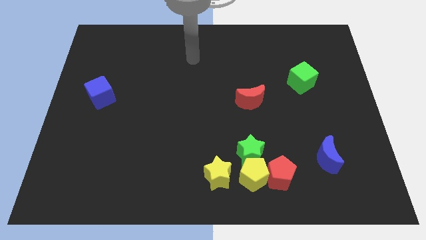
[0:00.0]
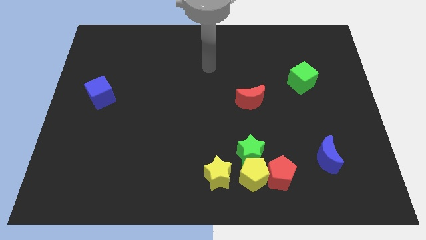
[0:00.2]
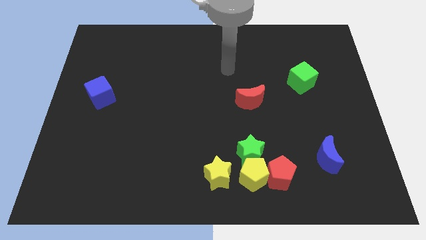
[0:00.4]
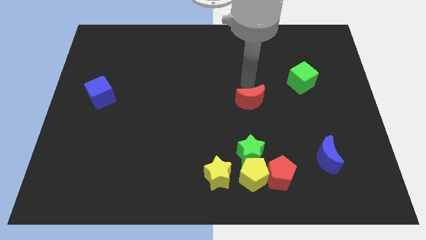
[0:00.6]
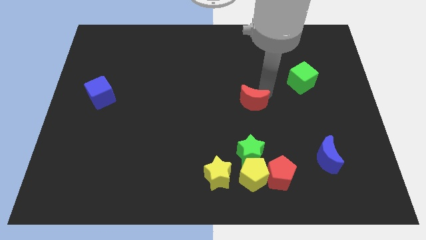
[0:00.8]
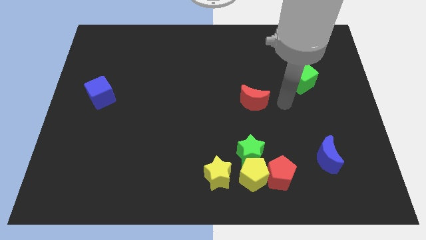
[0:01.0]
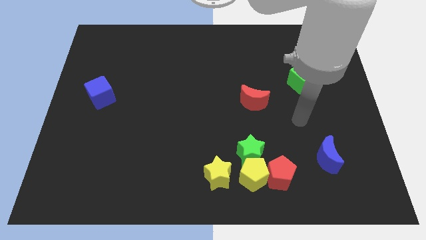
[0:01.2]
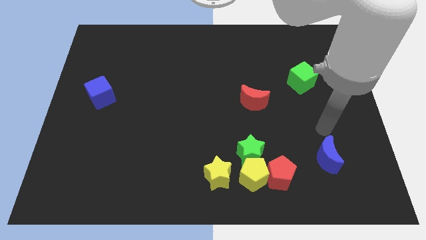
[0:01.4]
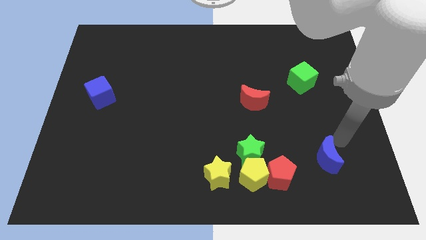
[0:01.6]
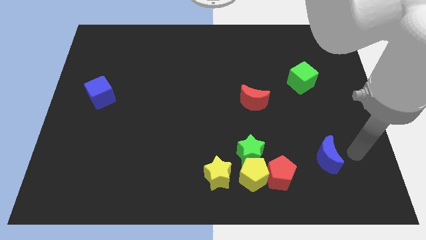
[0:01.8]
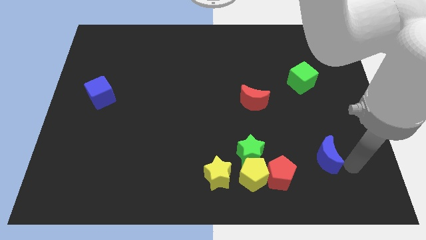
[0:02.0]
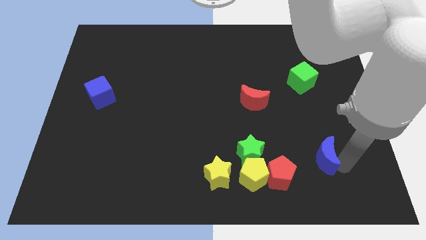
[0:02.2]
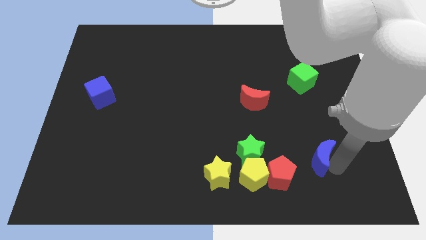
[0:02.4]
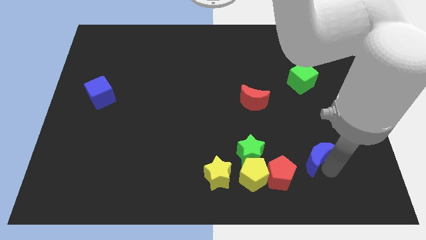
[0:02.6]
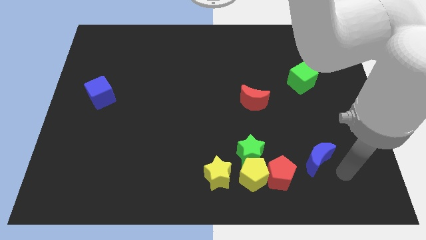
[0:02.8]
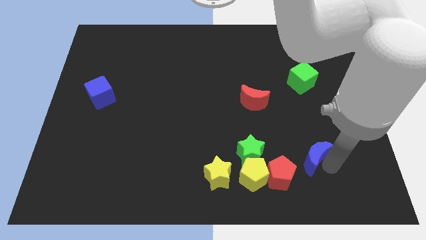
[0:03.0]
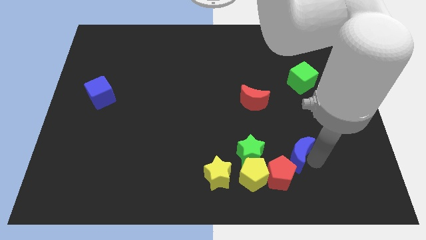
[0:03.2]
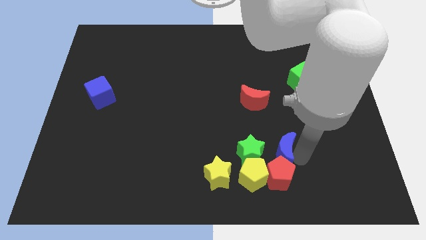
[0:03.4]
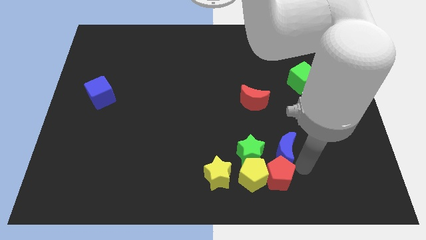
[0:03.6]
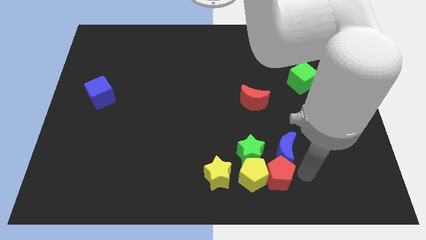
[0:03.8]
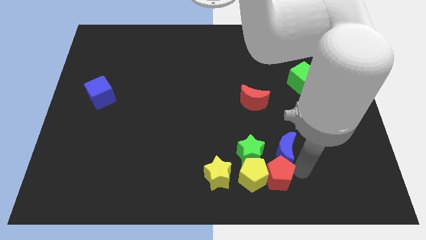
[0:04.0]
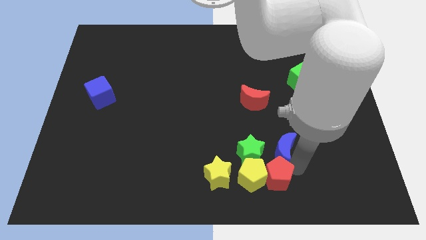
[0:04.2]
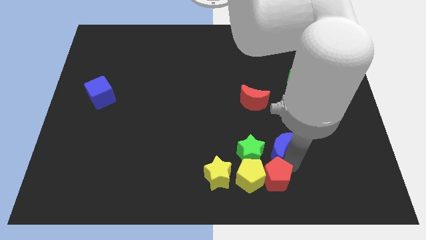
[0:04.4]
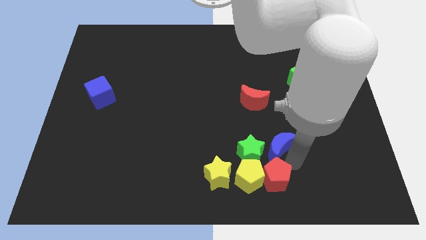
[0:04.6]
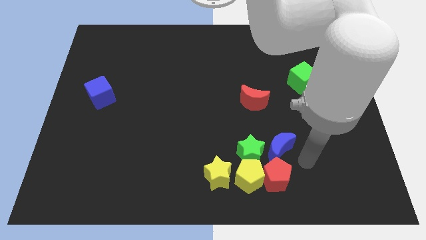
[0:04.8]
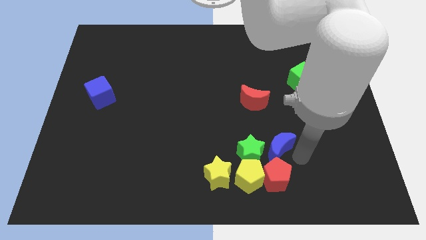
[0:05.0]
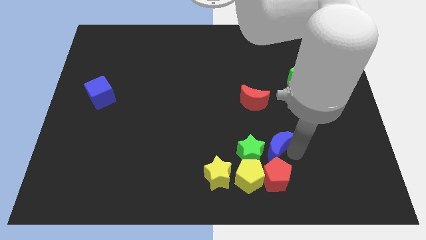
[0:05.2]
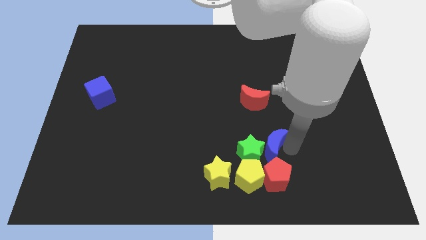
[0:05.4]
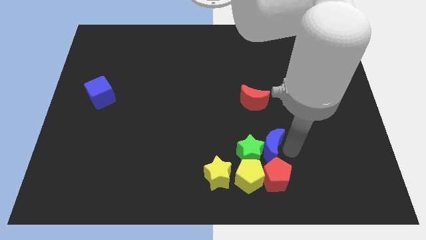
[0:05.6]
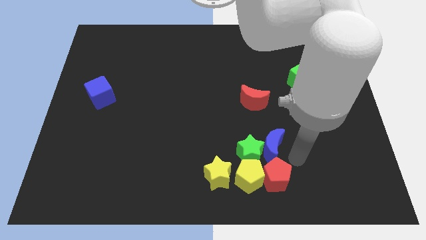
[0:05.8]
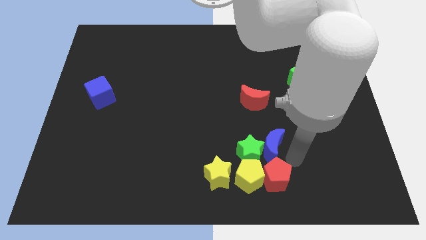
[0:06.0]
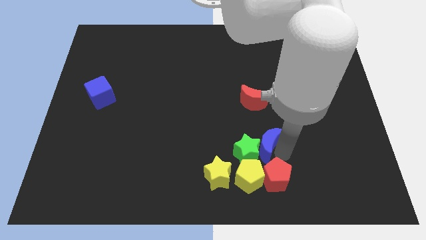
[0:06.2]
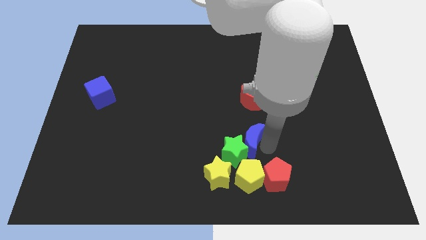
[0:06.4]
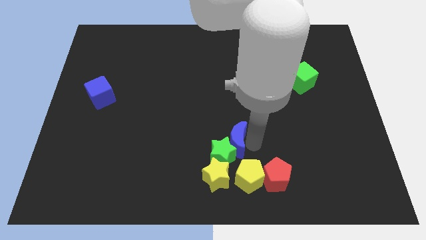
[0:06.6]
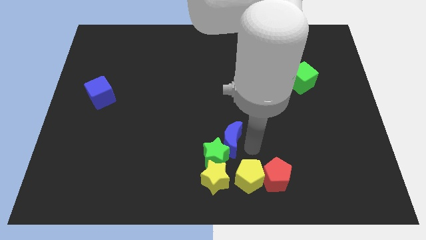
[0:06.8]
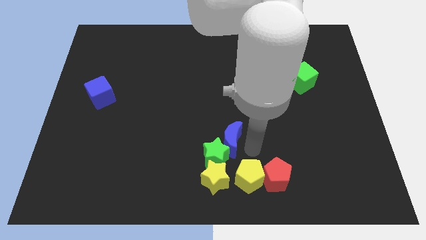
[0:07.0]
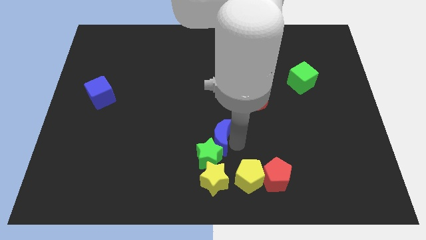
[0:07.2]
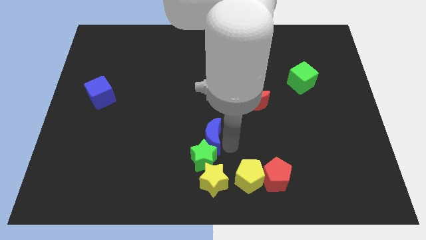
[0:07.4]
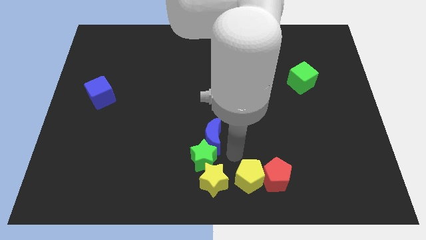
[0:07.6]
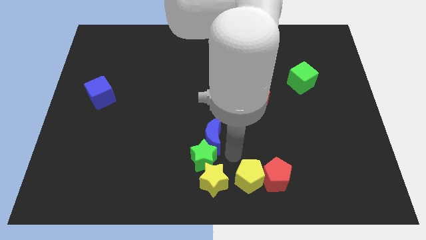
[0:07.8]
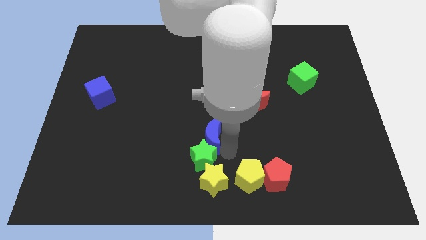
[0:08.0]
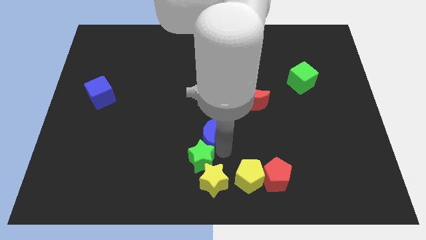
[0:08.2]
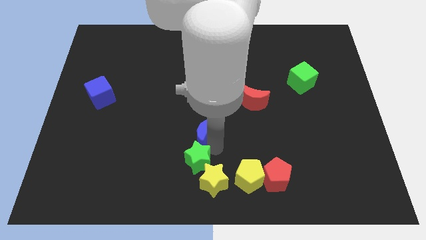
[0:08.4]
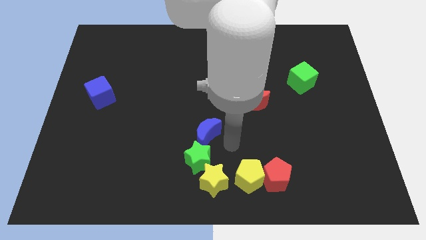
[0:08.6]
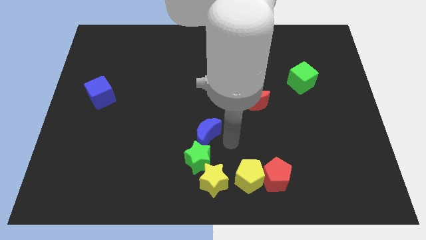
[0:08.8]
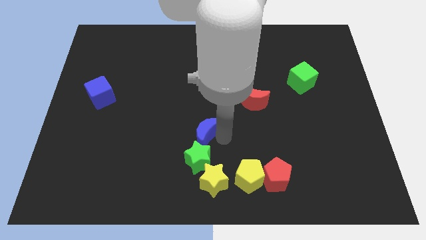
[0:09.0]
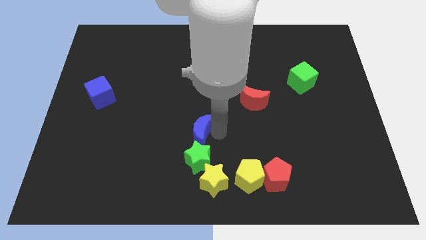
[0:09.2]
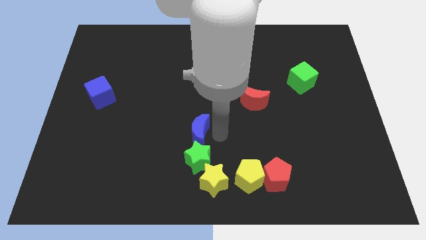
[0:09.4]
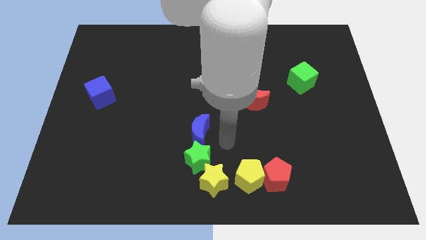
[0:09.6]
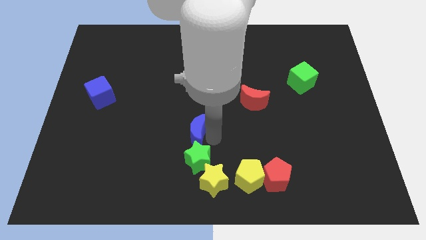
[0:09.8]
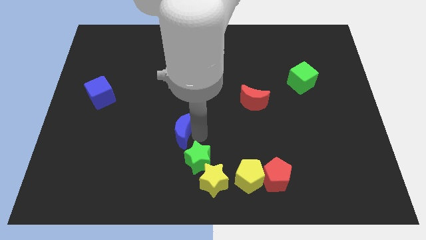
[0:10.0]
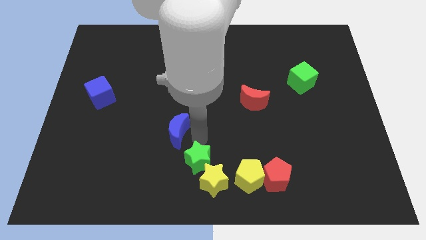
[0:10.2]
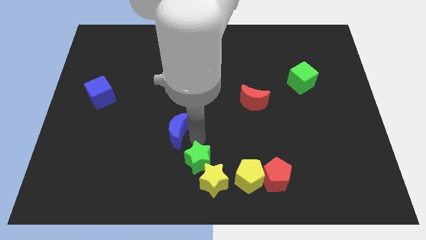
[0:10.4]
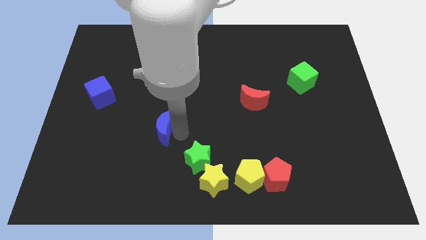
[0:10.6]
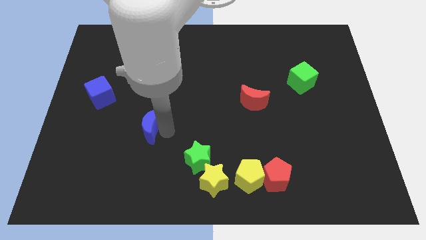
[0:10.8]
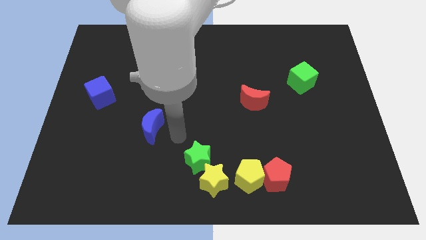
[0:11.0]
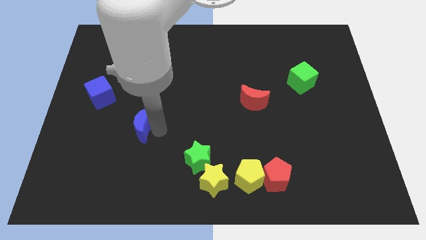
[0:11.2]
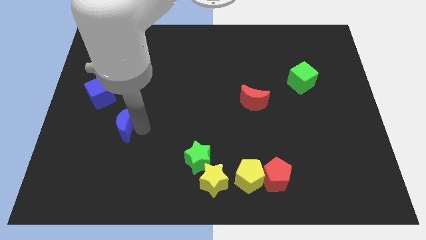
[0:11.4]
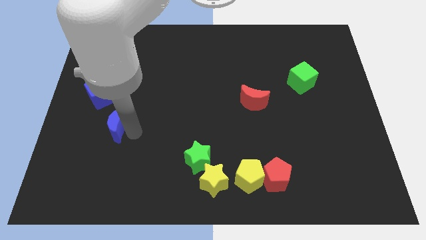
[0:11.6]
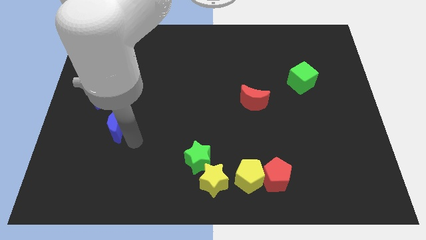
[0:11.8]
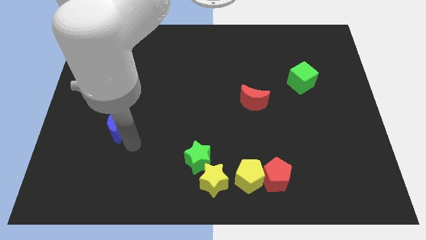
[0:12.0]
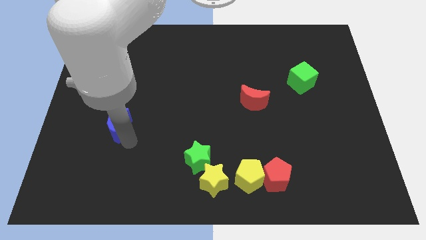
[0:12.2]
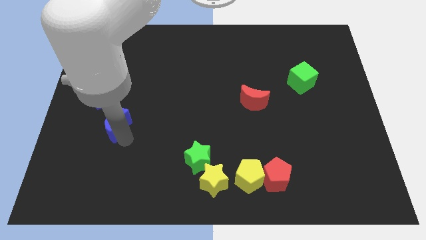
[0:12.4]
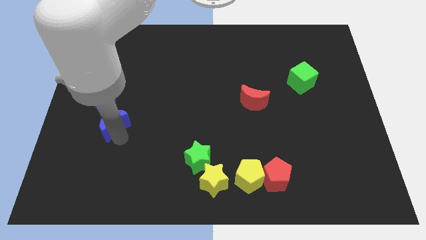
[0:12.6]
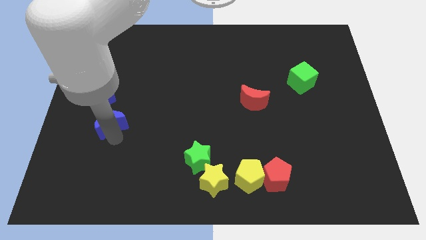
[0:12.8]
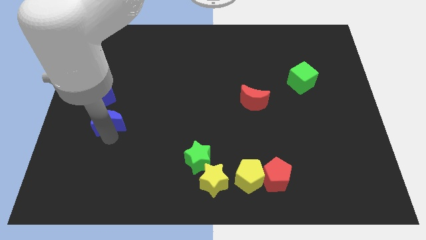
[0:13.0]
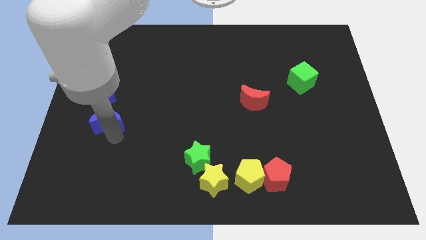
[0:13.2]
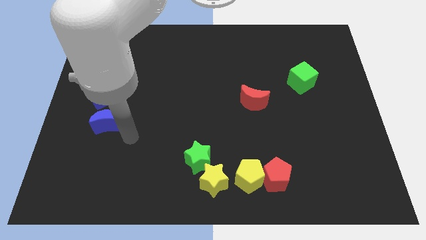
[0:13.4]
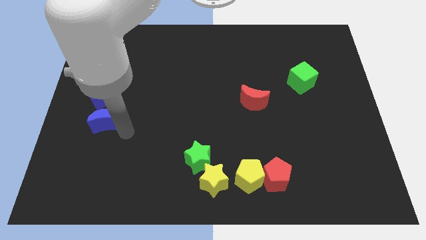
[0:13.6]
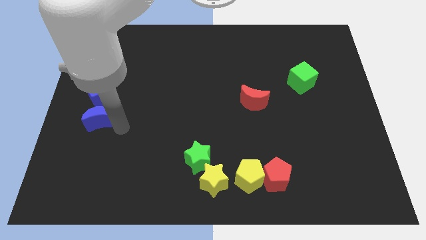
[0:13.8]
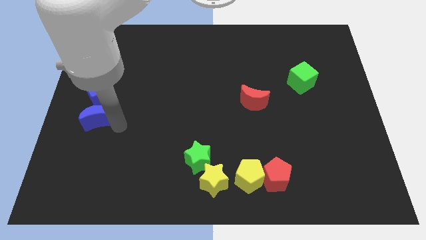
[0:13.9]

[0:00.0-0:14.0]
put the blue moon to the center left
